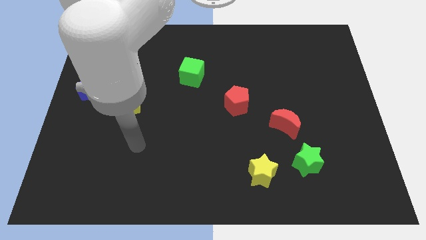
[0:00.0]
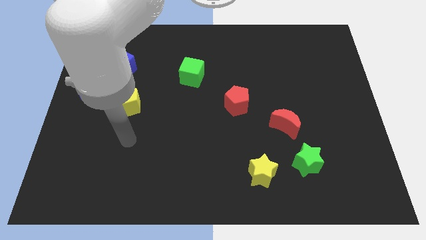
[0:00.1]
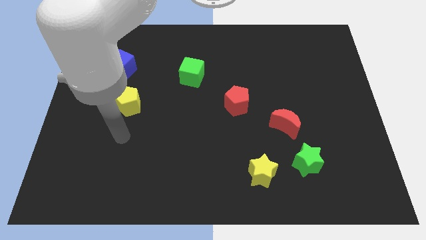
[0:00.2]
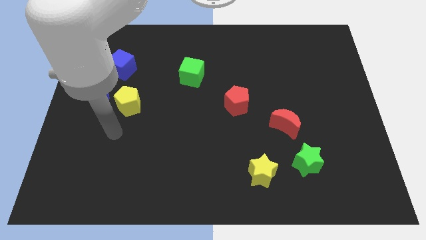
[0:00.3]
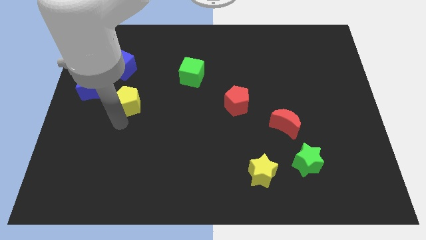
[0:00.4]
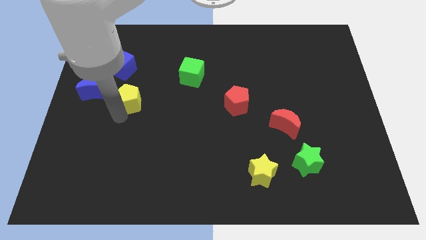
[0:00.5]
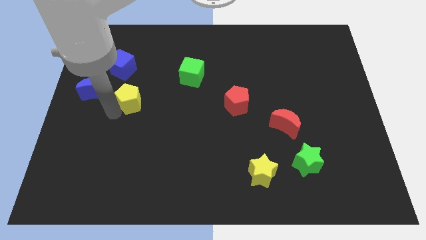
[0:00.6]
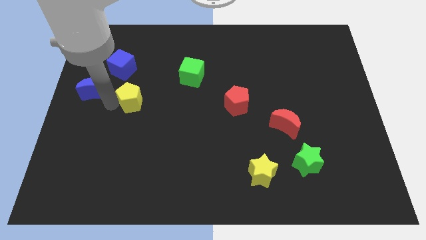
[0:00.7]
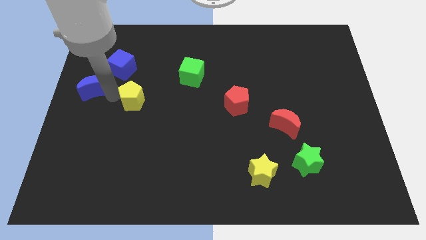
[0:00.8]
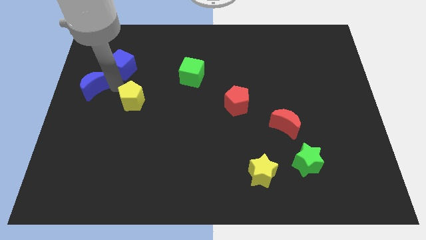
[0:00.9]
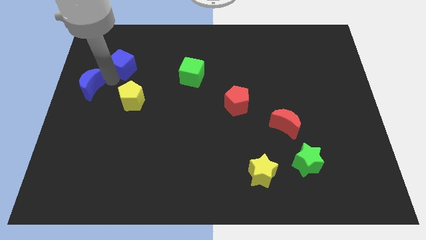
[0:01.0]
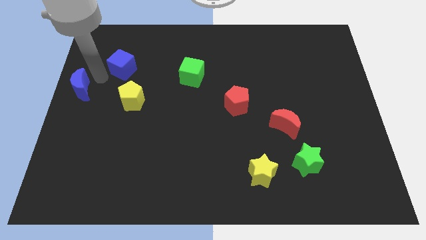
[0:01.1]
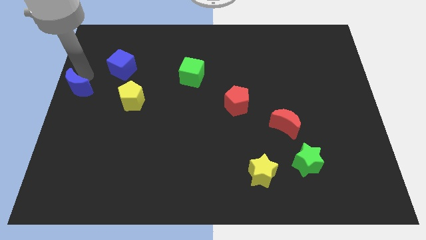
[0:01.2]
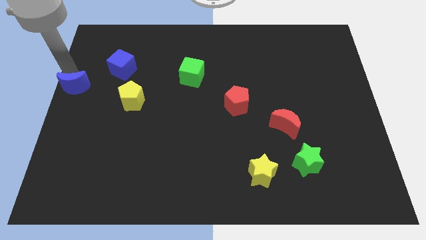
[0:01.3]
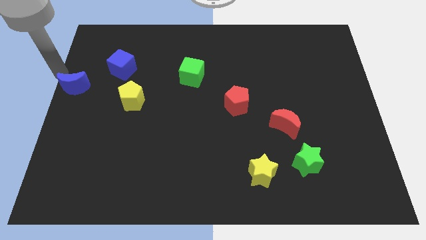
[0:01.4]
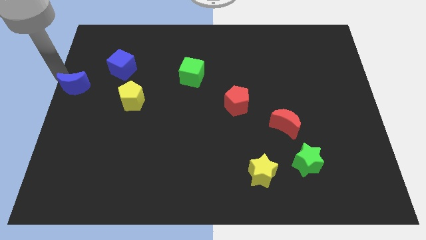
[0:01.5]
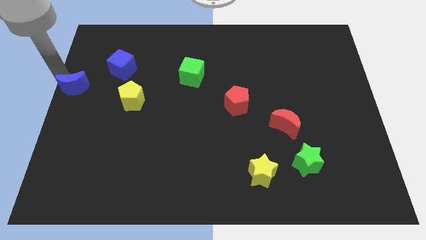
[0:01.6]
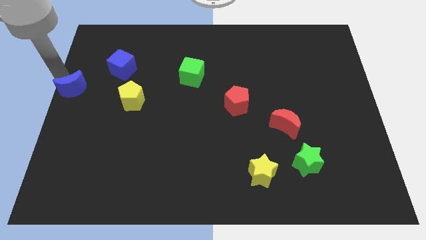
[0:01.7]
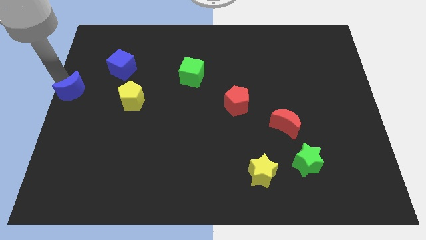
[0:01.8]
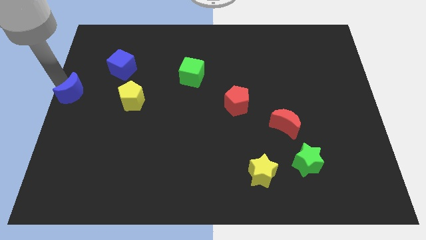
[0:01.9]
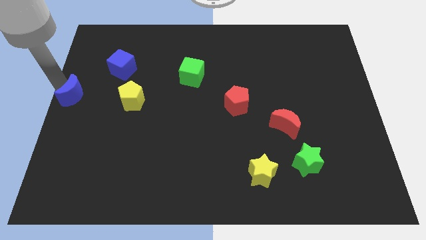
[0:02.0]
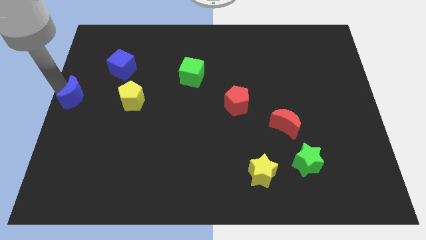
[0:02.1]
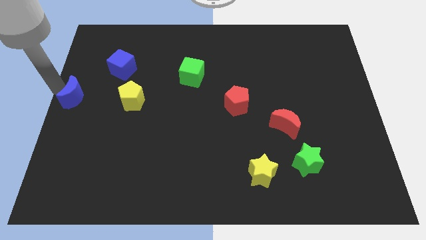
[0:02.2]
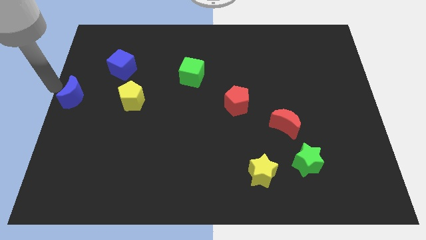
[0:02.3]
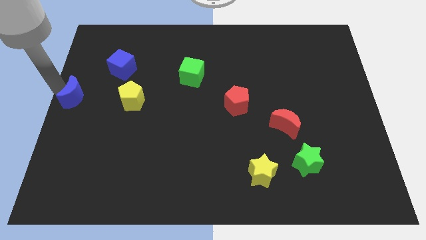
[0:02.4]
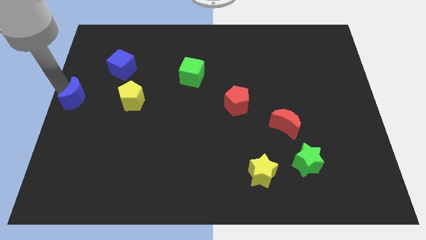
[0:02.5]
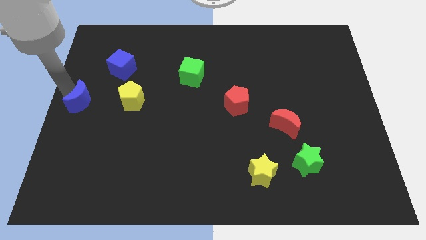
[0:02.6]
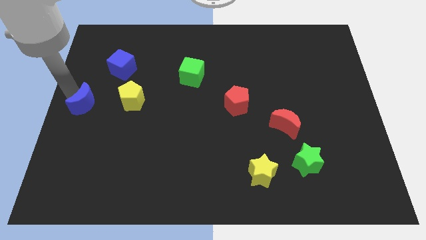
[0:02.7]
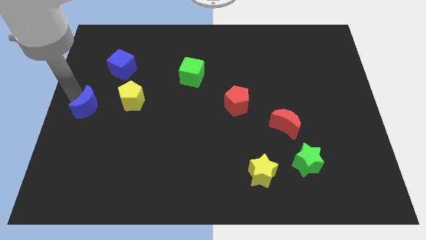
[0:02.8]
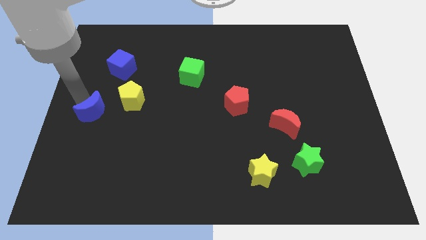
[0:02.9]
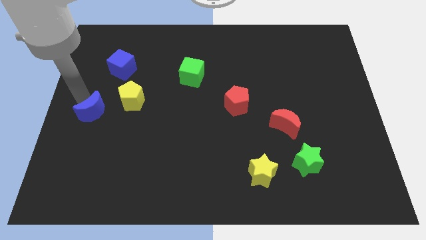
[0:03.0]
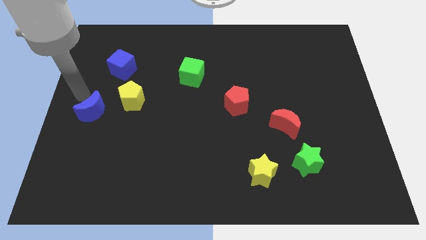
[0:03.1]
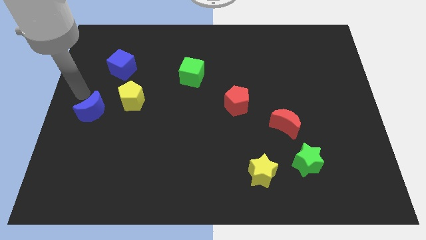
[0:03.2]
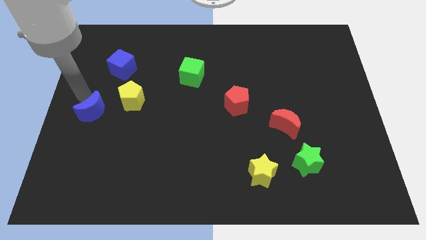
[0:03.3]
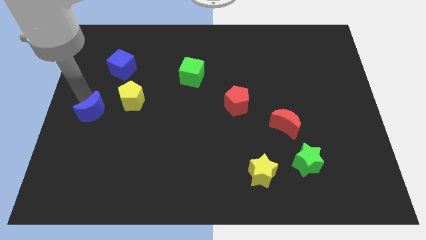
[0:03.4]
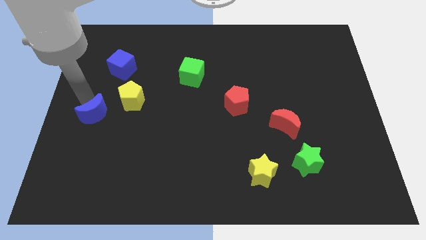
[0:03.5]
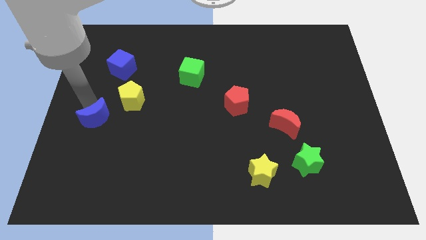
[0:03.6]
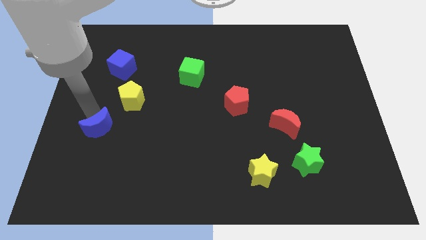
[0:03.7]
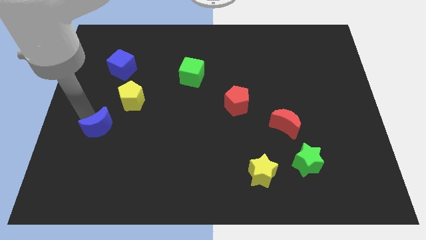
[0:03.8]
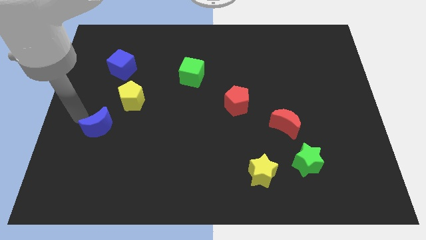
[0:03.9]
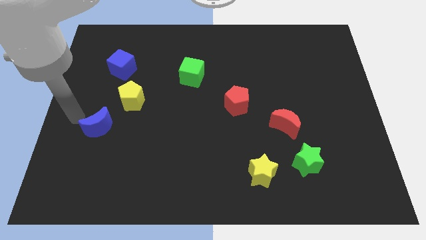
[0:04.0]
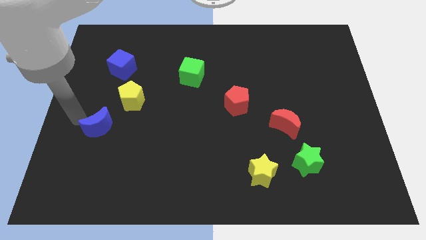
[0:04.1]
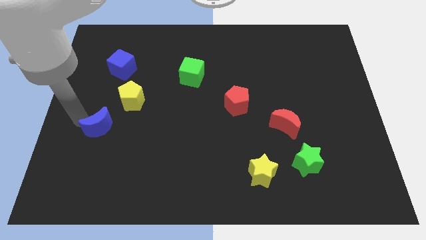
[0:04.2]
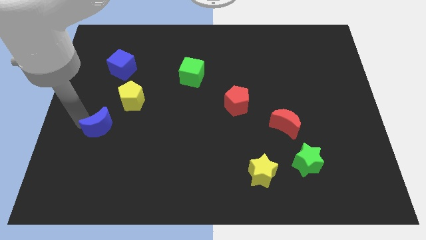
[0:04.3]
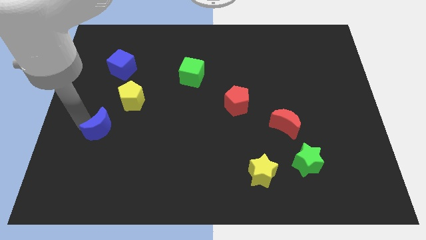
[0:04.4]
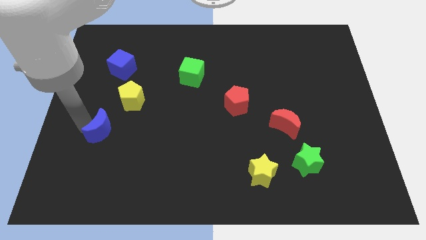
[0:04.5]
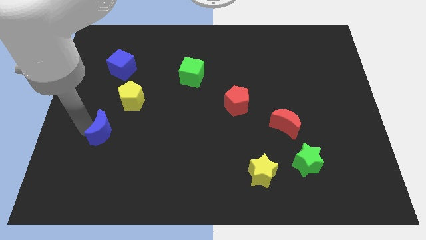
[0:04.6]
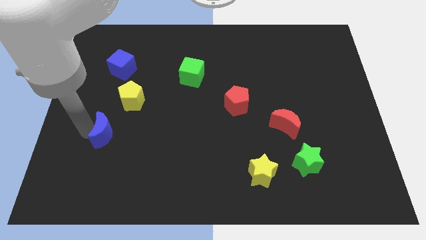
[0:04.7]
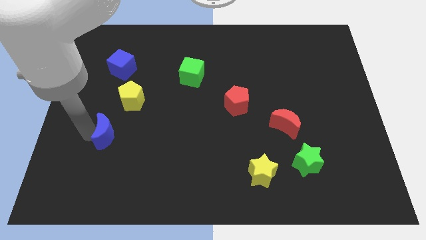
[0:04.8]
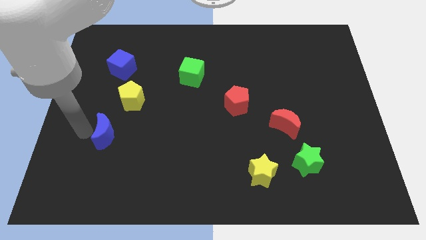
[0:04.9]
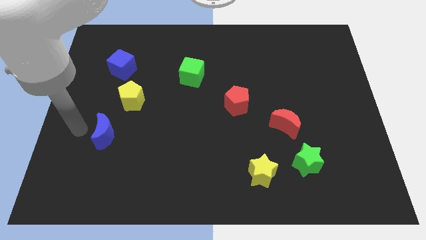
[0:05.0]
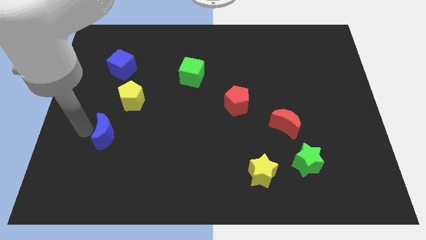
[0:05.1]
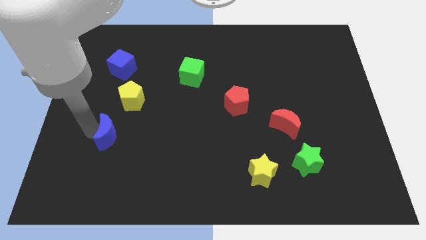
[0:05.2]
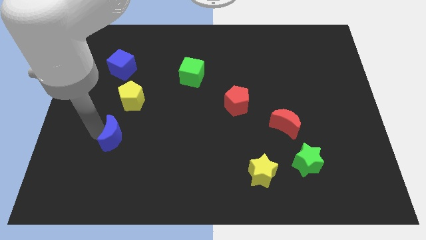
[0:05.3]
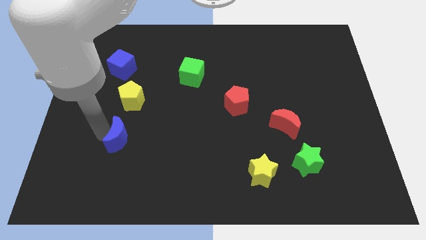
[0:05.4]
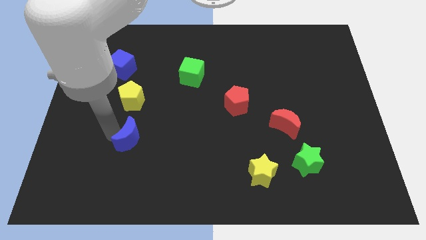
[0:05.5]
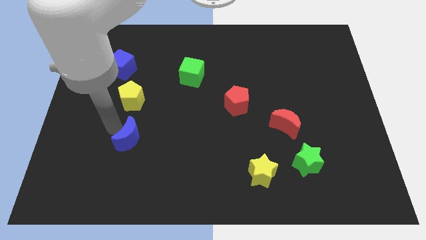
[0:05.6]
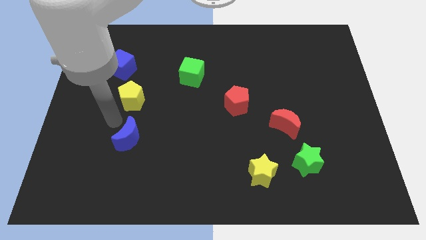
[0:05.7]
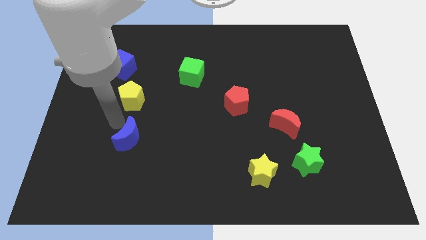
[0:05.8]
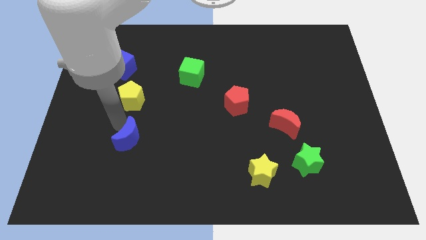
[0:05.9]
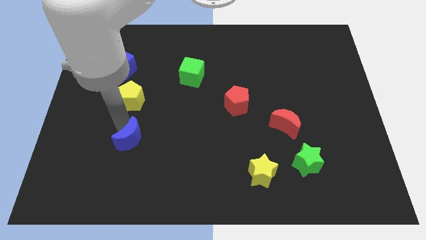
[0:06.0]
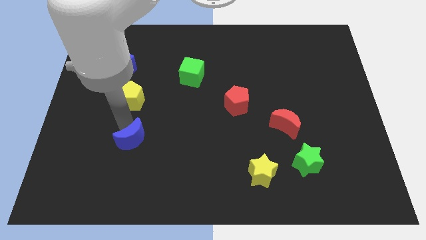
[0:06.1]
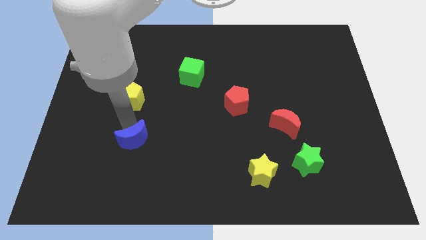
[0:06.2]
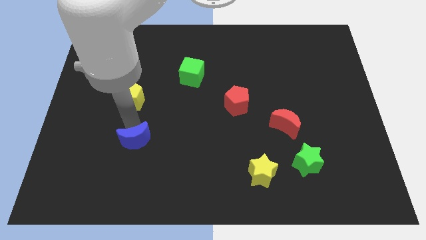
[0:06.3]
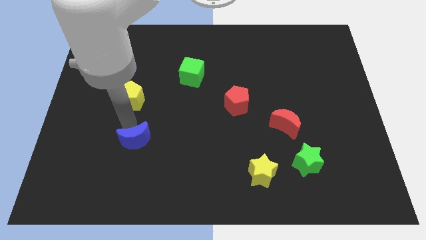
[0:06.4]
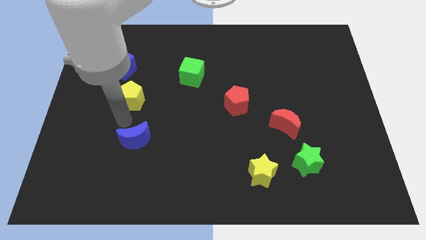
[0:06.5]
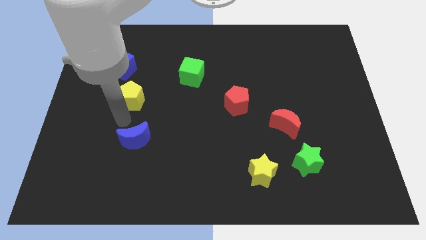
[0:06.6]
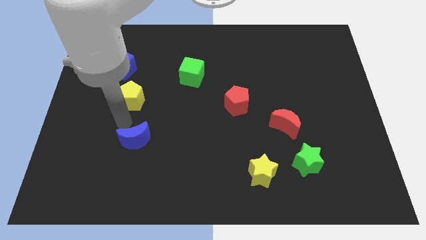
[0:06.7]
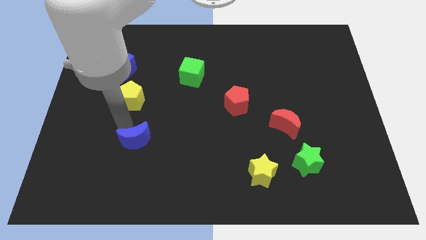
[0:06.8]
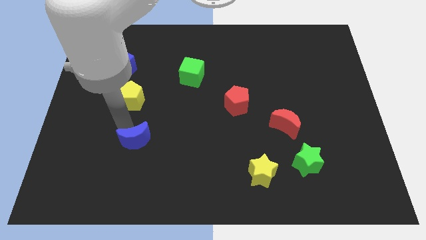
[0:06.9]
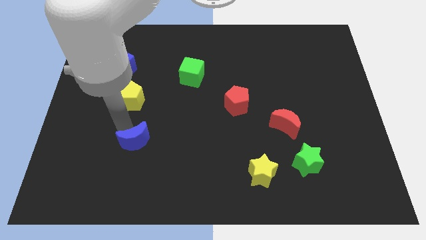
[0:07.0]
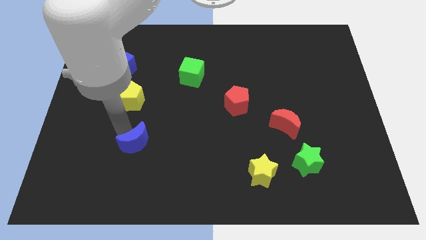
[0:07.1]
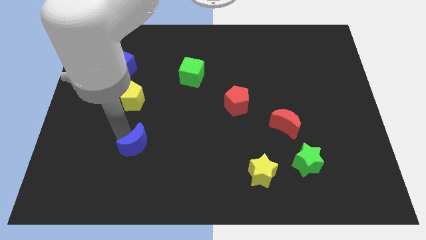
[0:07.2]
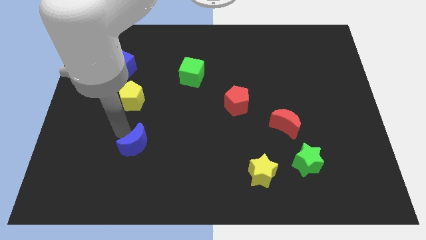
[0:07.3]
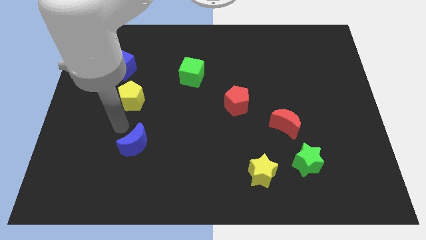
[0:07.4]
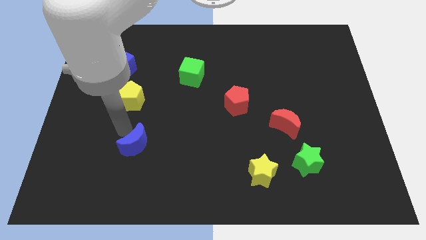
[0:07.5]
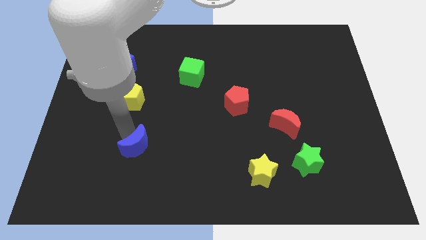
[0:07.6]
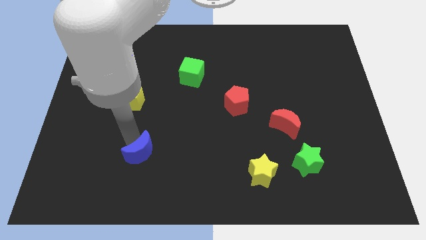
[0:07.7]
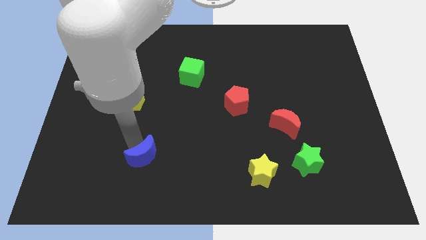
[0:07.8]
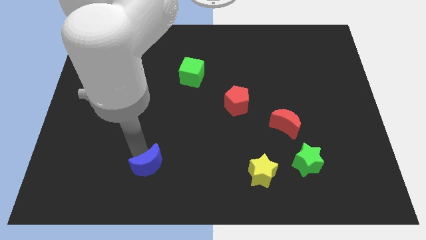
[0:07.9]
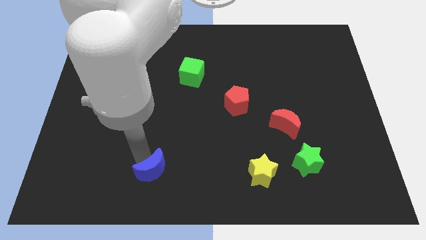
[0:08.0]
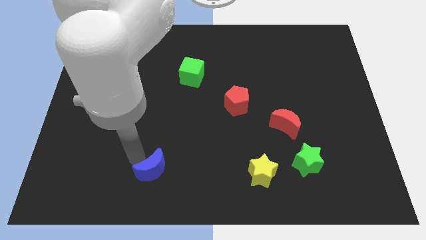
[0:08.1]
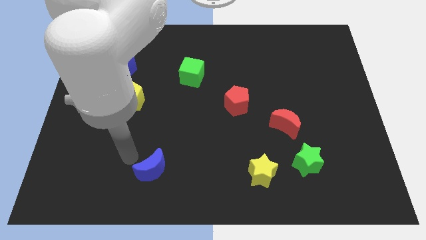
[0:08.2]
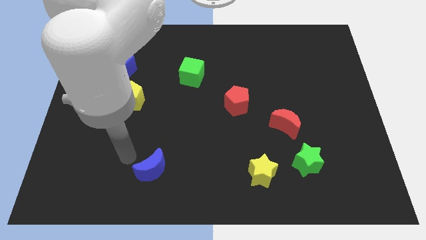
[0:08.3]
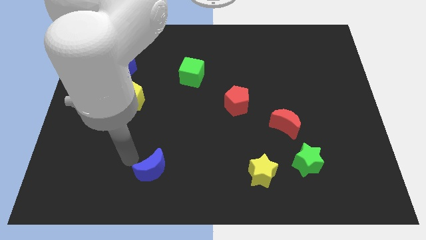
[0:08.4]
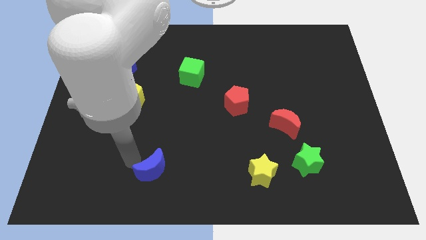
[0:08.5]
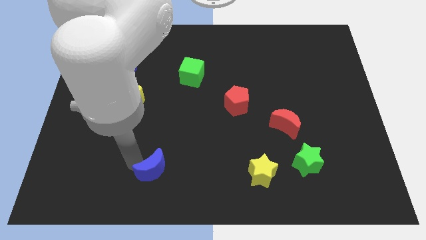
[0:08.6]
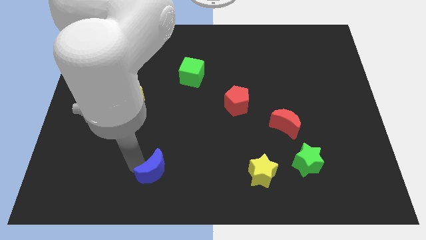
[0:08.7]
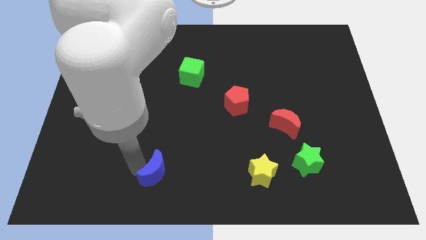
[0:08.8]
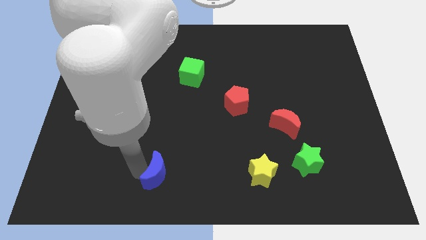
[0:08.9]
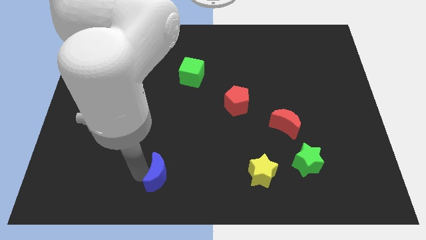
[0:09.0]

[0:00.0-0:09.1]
move the blue moon to the bottom side
